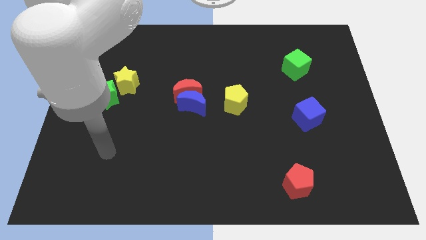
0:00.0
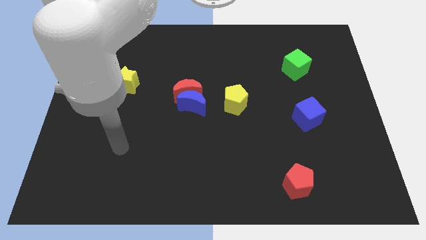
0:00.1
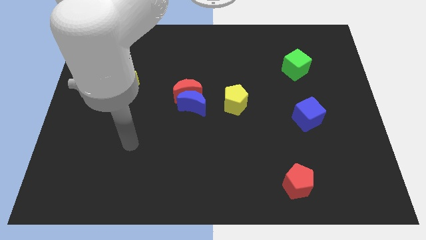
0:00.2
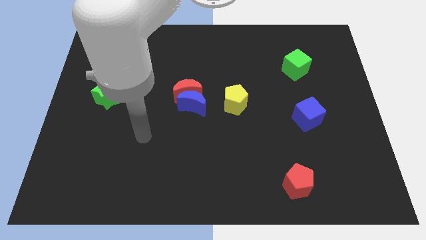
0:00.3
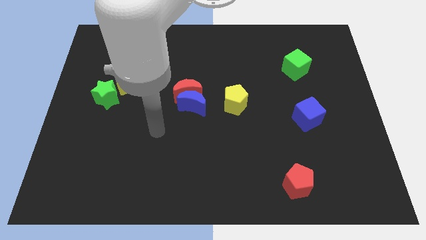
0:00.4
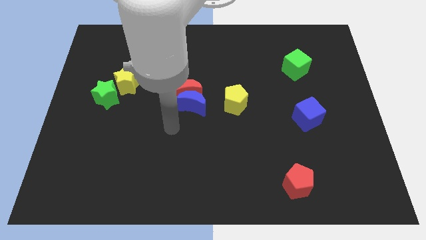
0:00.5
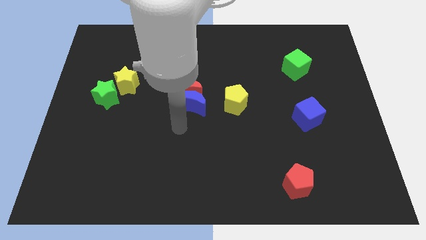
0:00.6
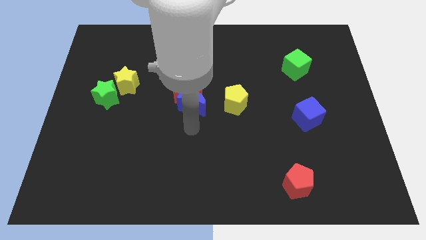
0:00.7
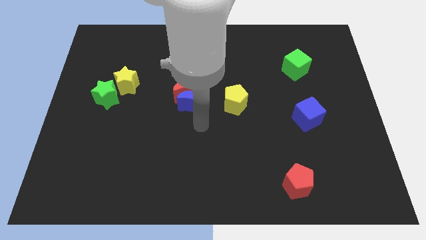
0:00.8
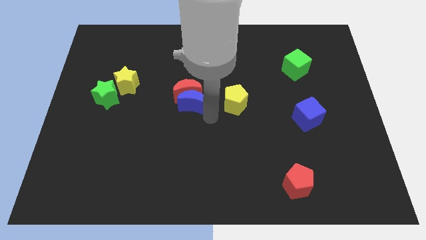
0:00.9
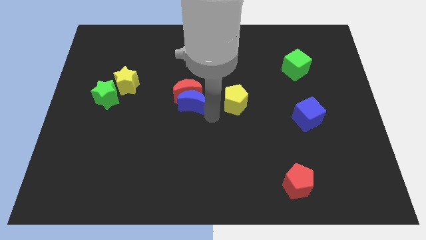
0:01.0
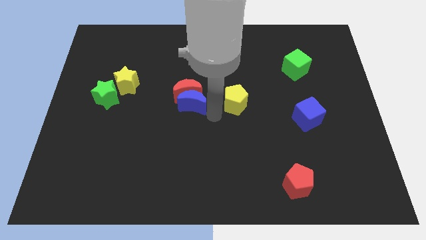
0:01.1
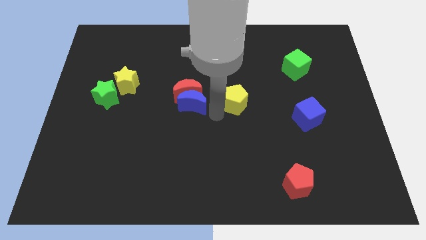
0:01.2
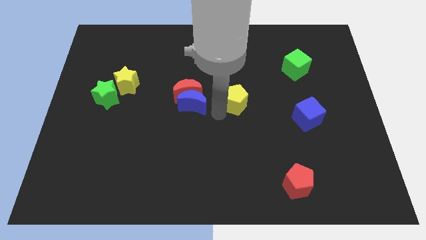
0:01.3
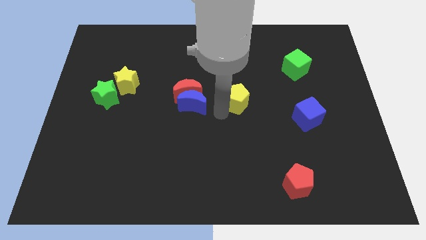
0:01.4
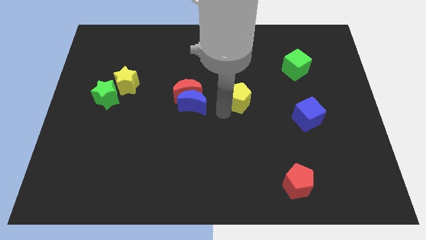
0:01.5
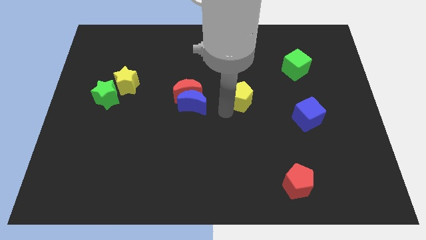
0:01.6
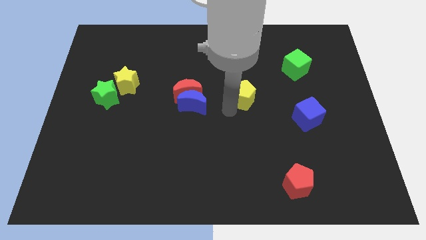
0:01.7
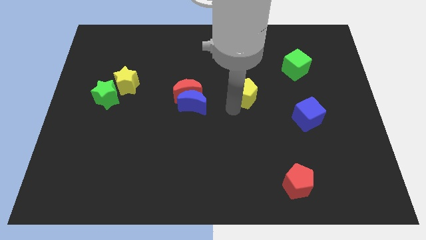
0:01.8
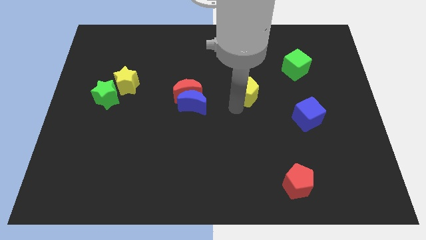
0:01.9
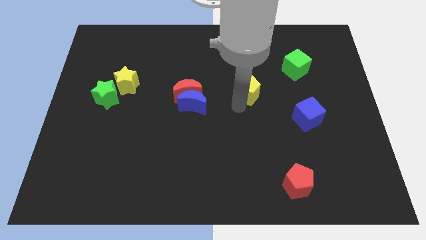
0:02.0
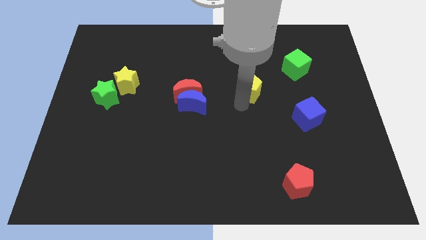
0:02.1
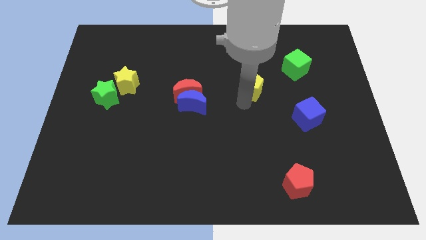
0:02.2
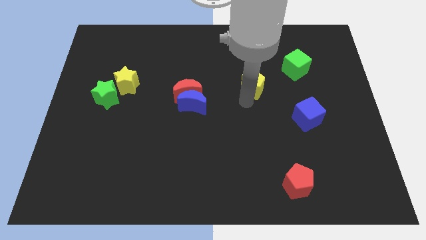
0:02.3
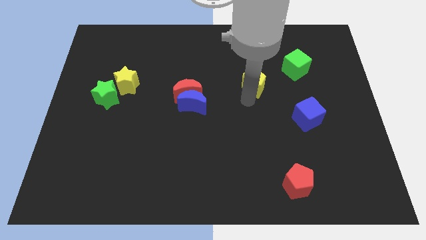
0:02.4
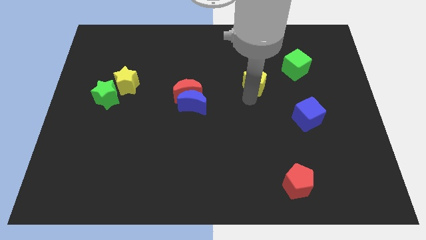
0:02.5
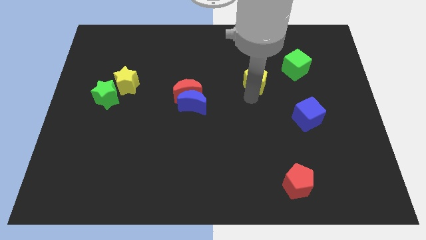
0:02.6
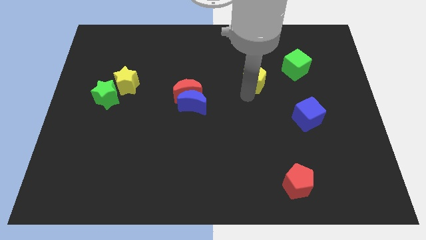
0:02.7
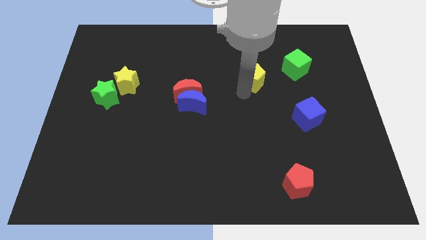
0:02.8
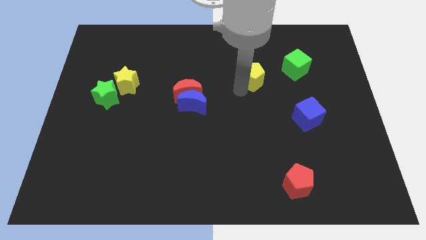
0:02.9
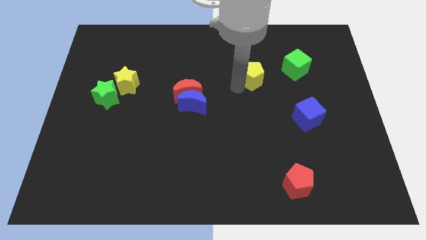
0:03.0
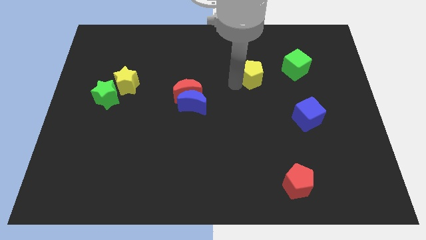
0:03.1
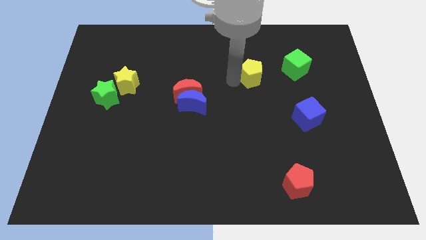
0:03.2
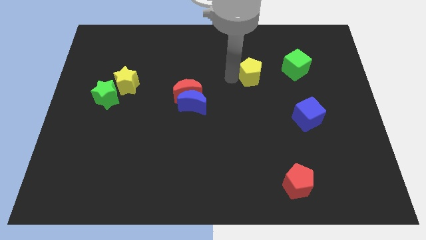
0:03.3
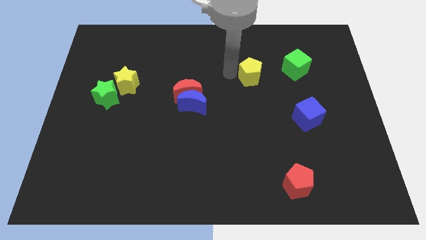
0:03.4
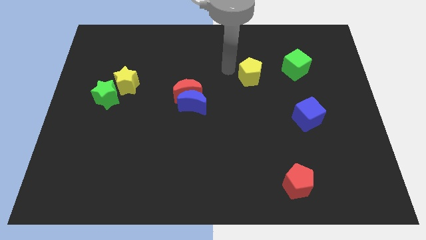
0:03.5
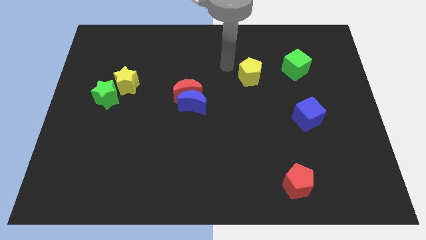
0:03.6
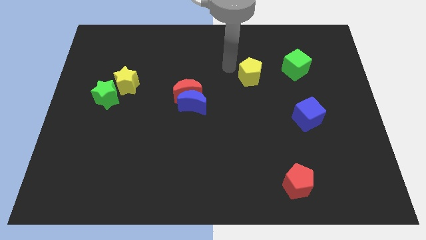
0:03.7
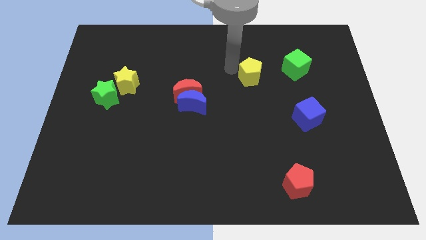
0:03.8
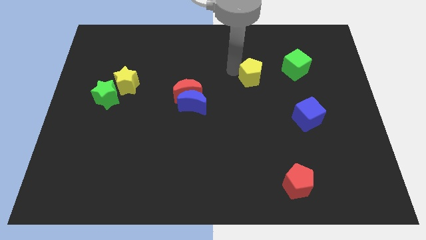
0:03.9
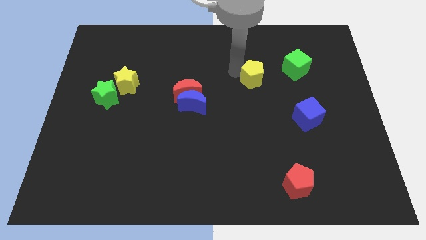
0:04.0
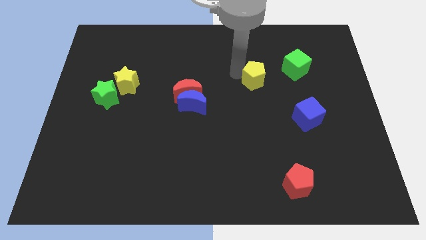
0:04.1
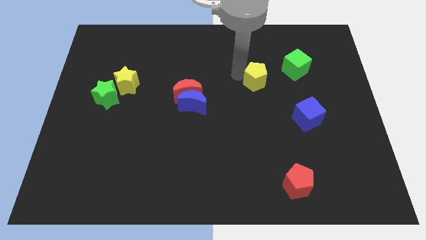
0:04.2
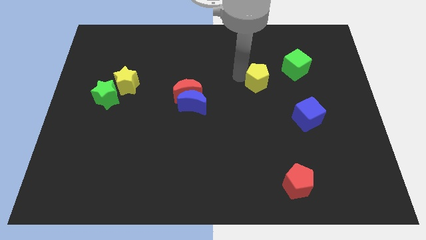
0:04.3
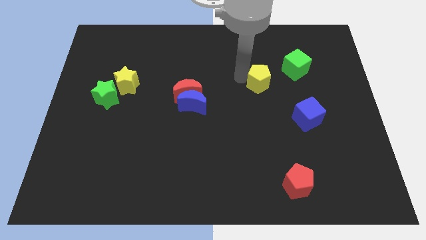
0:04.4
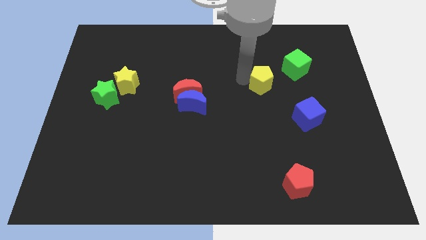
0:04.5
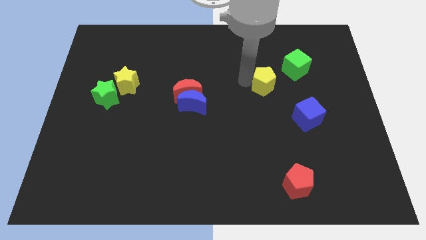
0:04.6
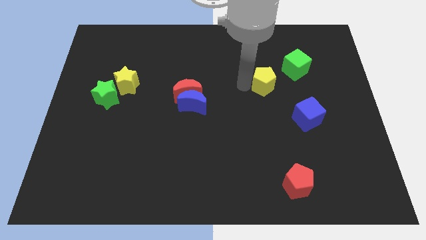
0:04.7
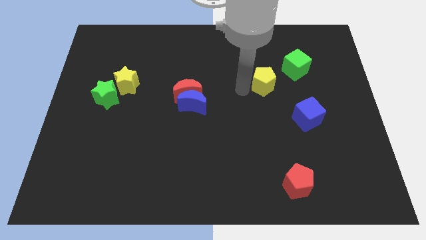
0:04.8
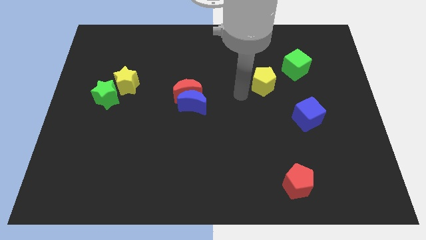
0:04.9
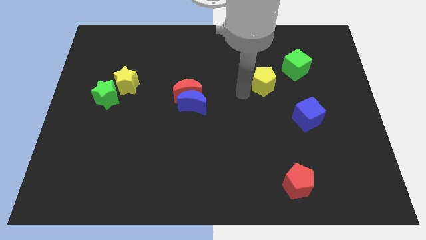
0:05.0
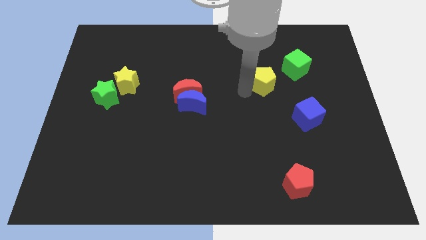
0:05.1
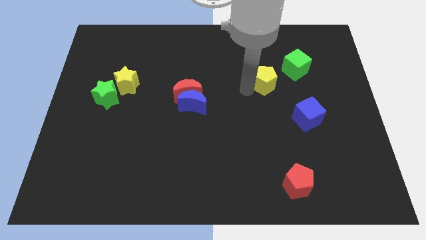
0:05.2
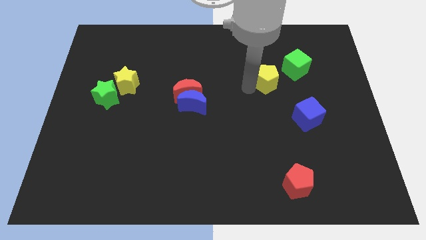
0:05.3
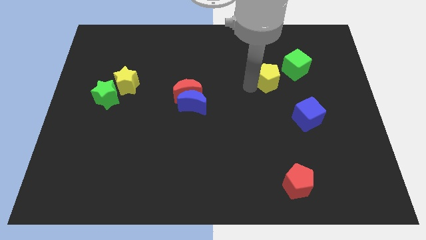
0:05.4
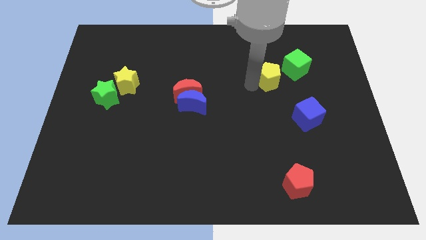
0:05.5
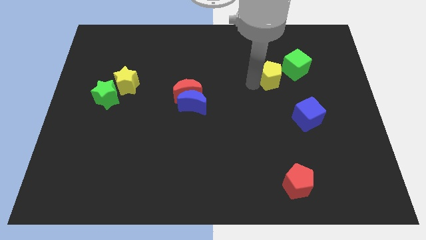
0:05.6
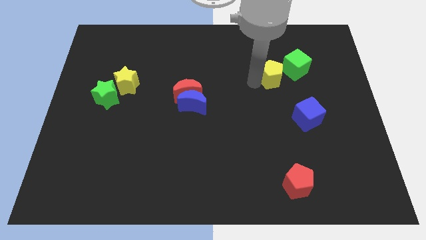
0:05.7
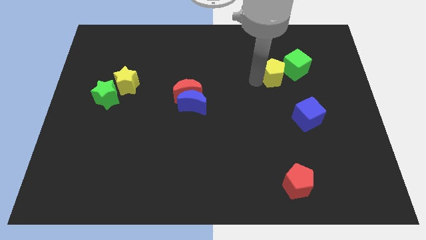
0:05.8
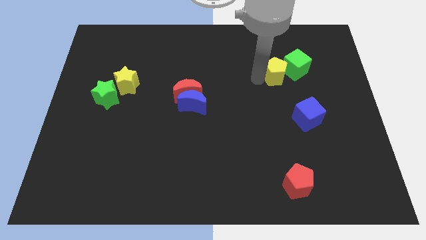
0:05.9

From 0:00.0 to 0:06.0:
move the yellow pentagon next to the green cube

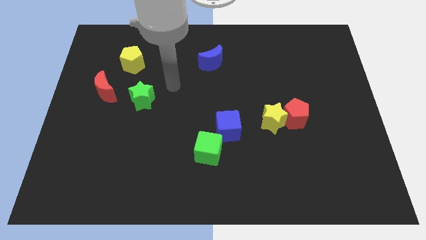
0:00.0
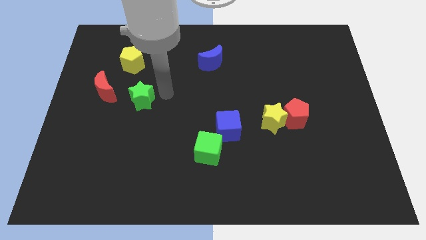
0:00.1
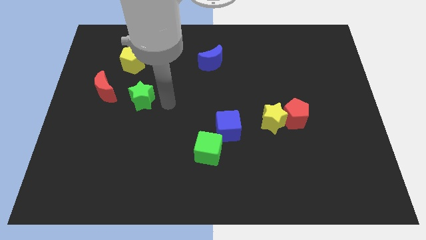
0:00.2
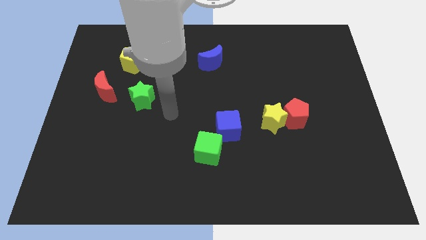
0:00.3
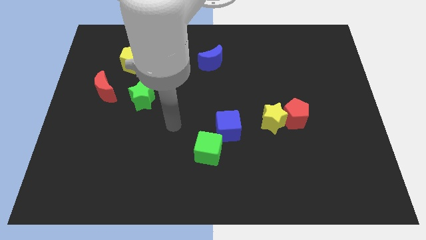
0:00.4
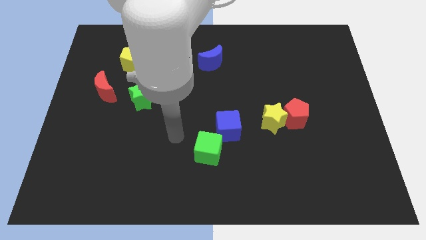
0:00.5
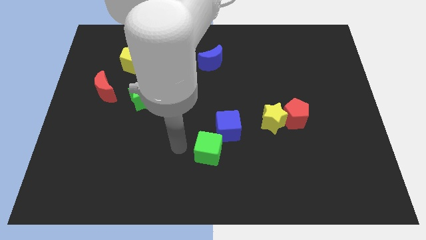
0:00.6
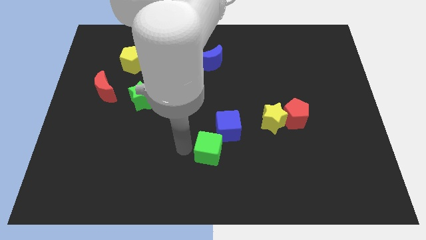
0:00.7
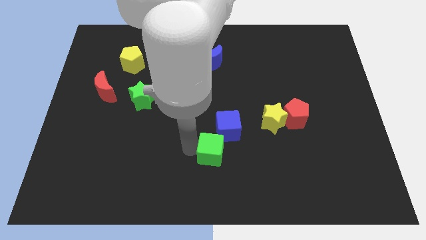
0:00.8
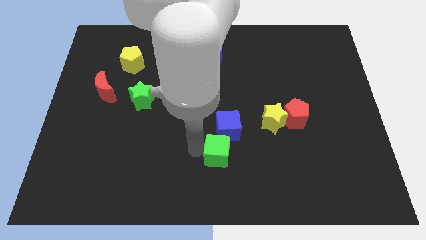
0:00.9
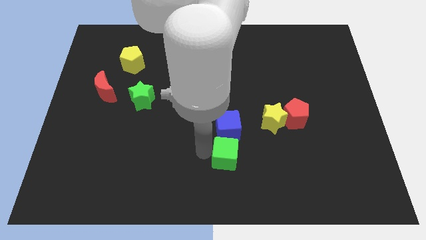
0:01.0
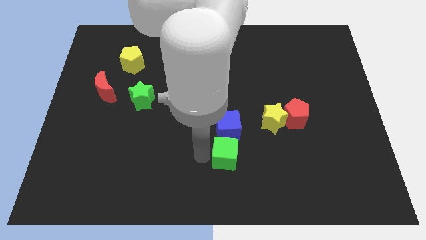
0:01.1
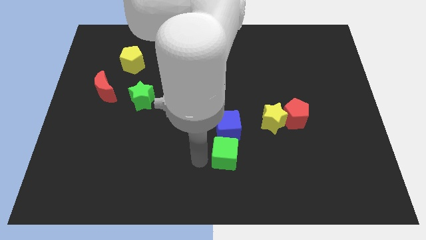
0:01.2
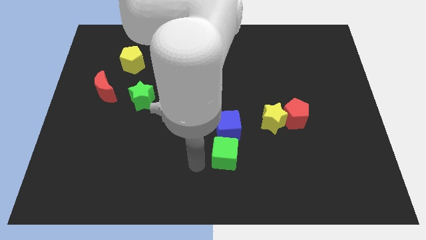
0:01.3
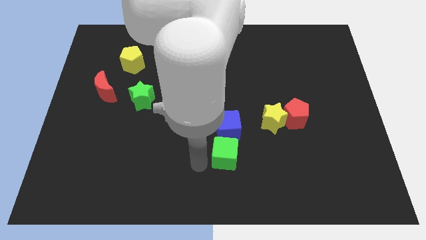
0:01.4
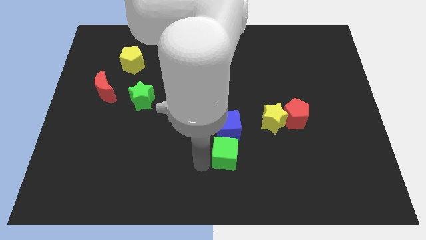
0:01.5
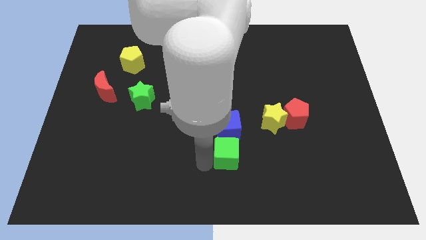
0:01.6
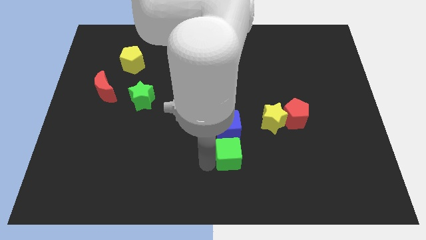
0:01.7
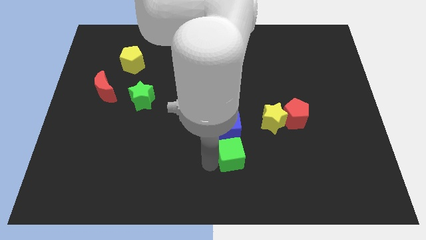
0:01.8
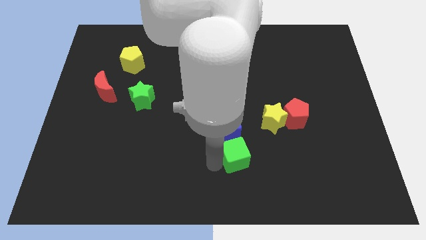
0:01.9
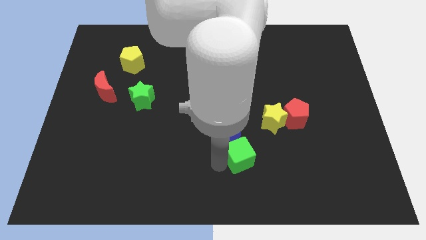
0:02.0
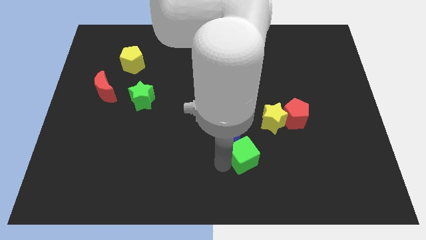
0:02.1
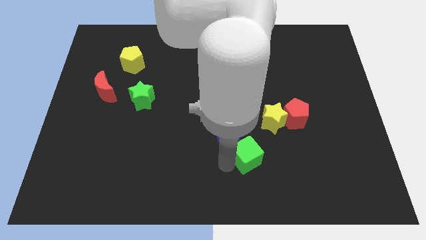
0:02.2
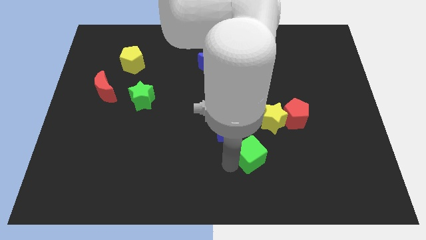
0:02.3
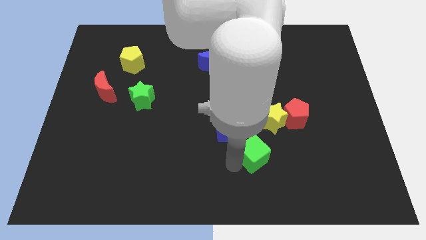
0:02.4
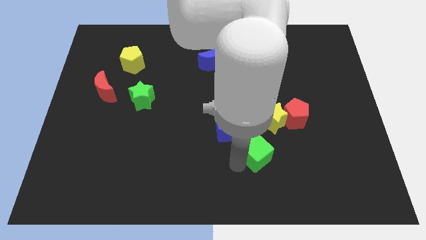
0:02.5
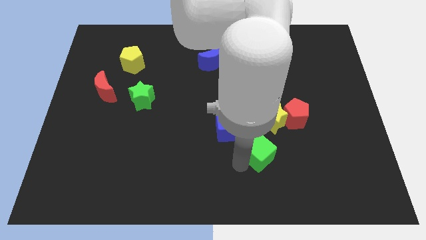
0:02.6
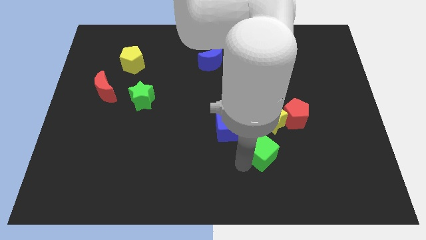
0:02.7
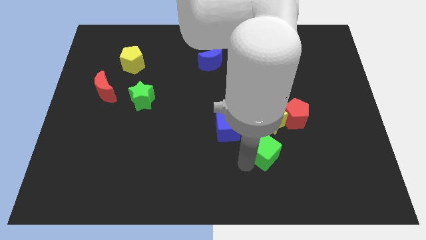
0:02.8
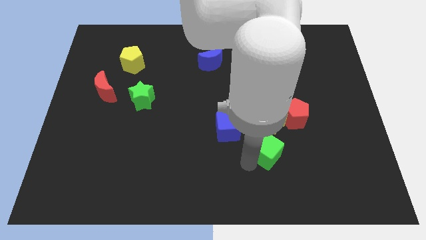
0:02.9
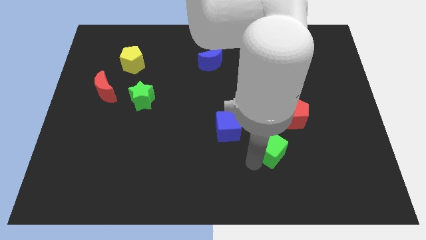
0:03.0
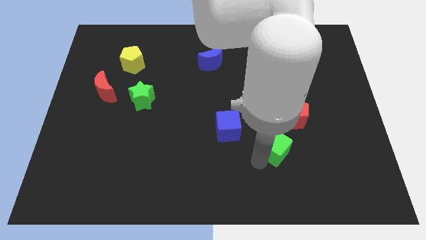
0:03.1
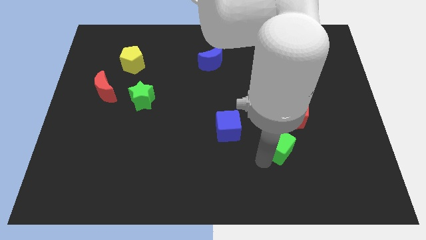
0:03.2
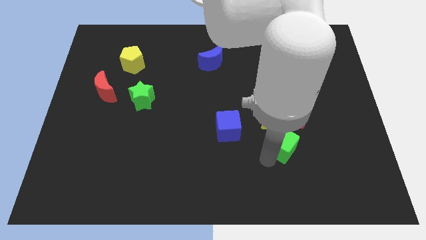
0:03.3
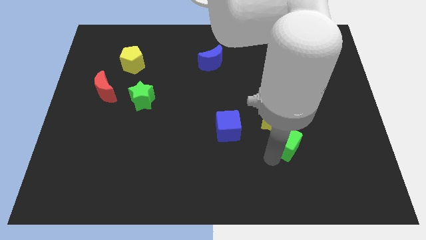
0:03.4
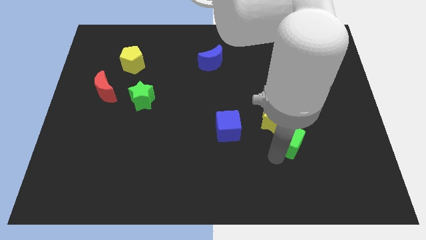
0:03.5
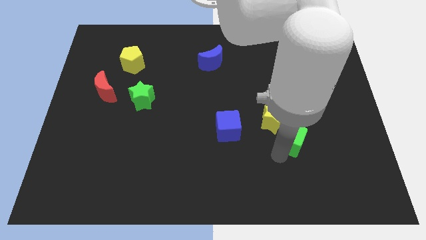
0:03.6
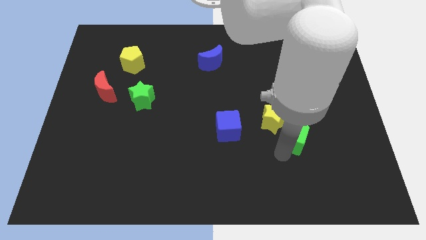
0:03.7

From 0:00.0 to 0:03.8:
move the green cube next to the red pentagon
